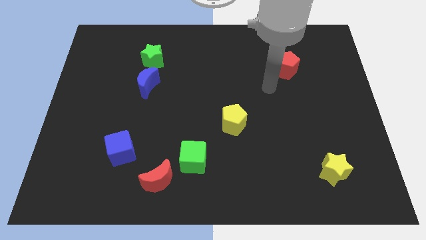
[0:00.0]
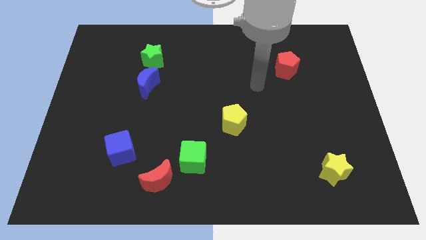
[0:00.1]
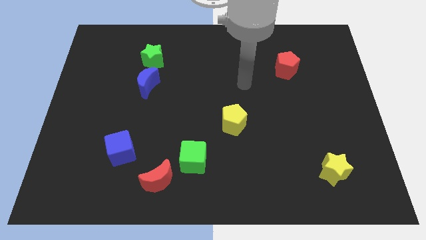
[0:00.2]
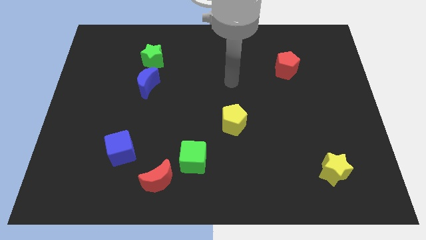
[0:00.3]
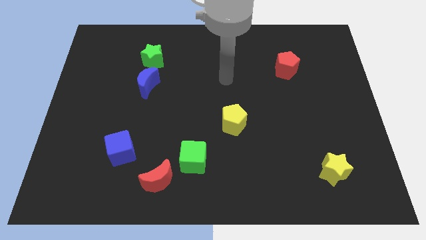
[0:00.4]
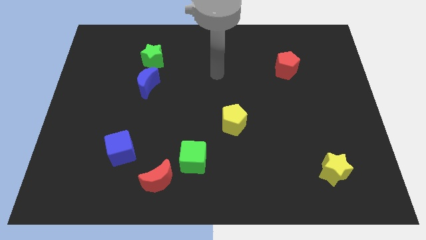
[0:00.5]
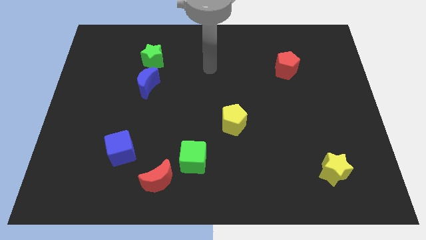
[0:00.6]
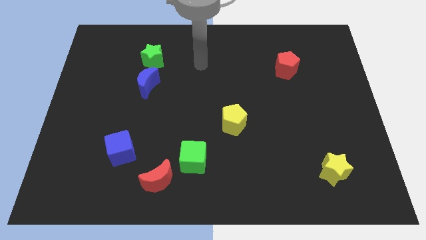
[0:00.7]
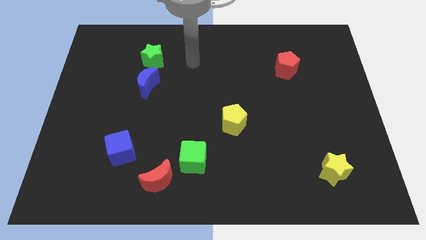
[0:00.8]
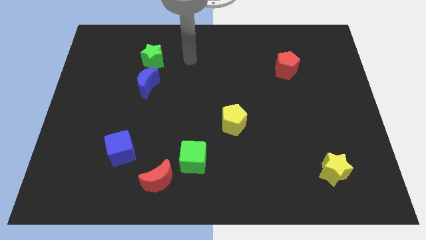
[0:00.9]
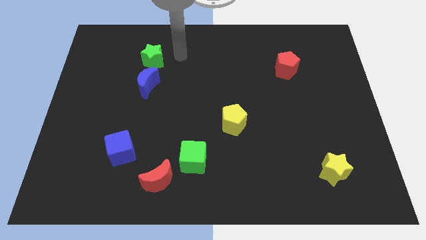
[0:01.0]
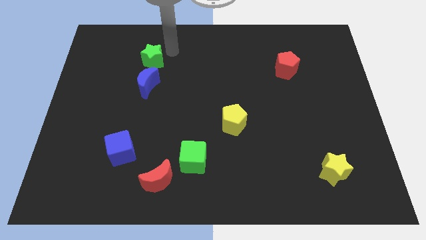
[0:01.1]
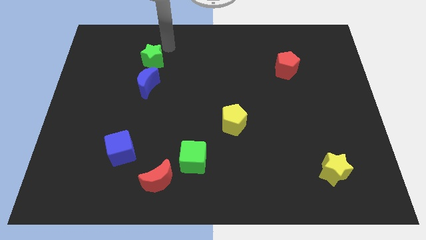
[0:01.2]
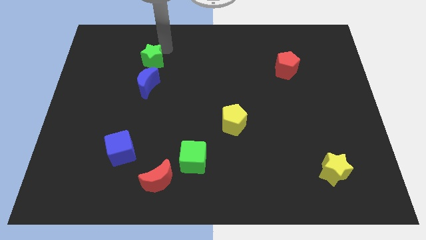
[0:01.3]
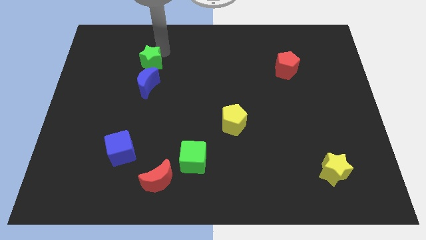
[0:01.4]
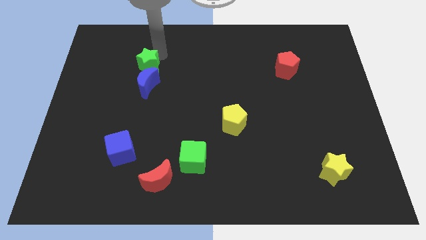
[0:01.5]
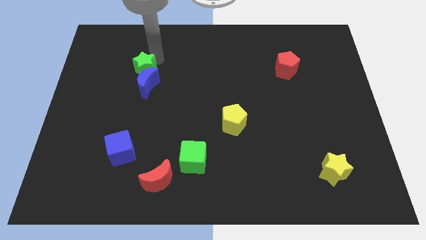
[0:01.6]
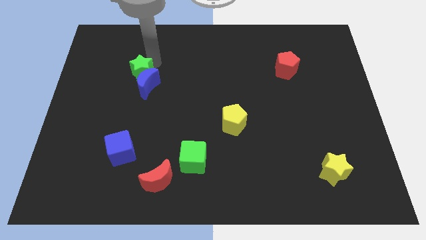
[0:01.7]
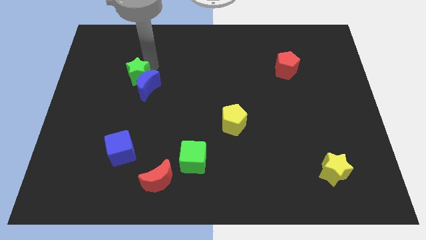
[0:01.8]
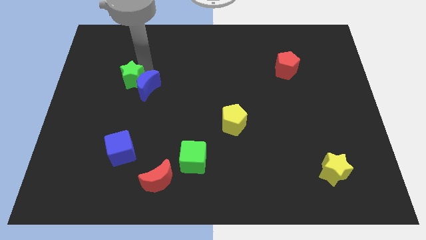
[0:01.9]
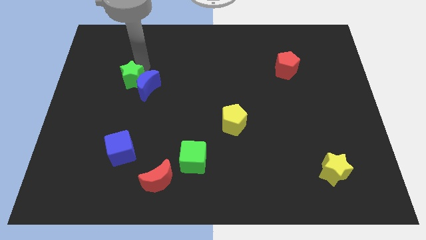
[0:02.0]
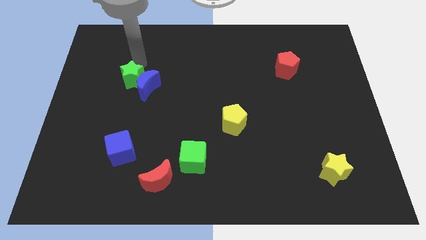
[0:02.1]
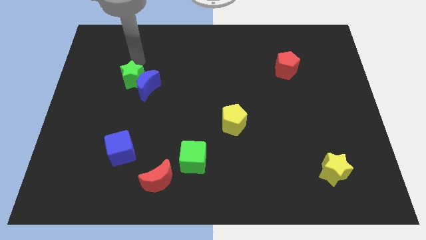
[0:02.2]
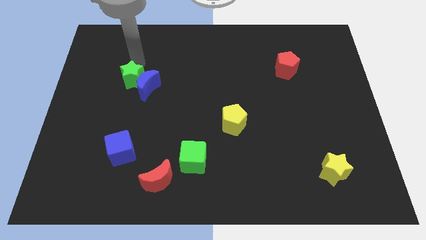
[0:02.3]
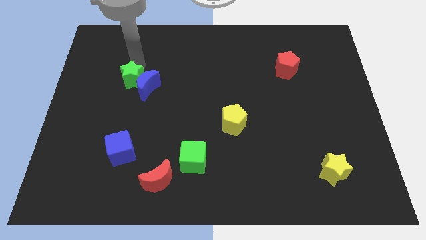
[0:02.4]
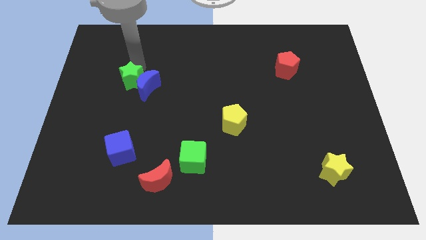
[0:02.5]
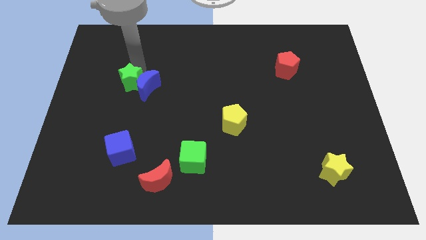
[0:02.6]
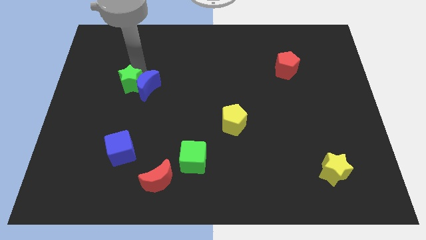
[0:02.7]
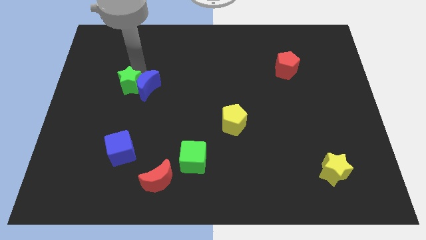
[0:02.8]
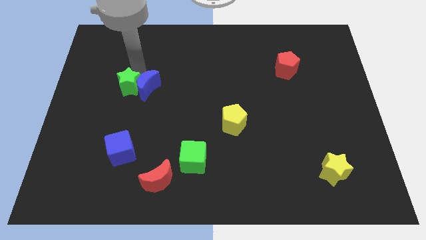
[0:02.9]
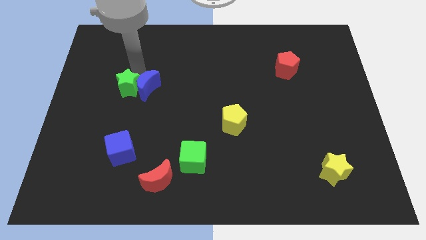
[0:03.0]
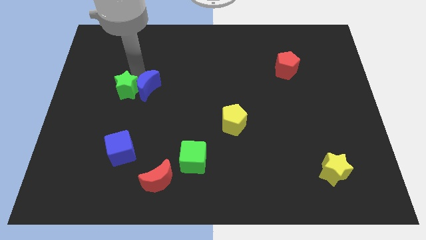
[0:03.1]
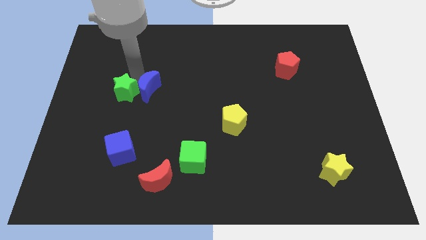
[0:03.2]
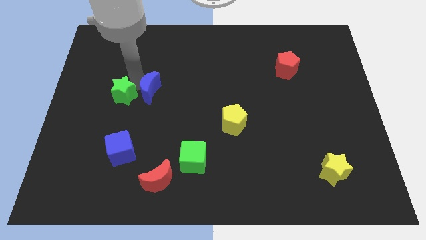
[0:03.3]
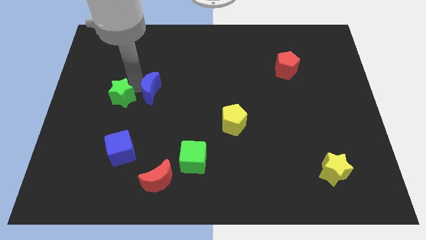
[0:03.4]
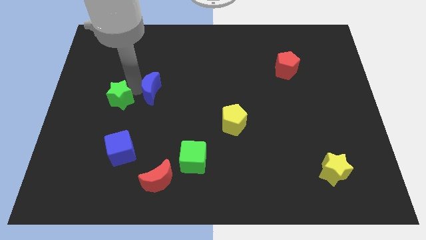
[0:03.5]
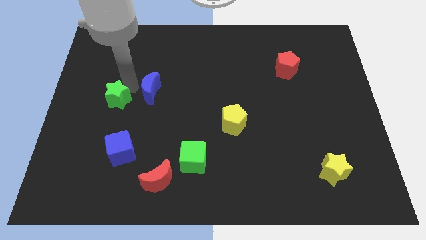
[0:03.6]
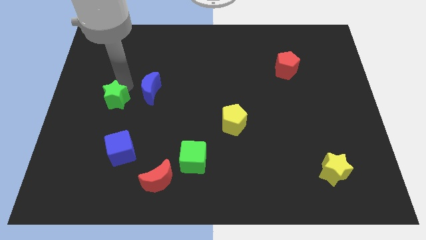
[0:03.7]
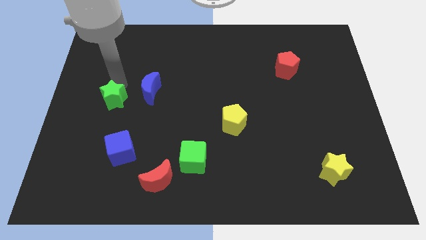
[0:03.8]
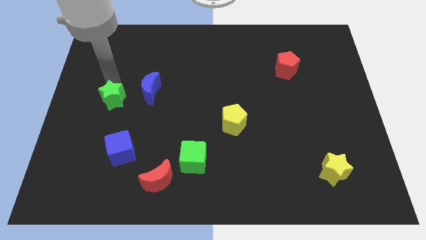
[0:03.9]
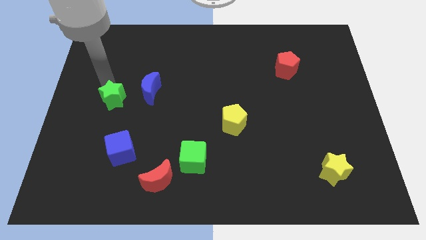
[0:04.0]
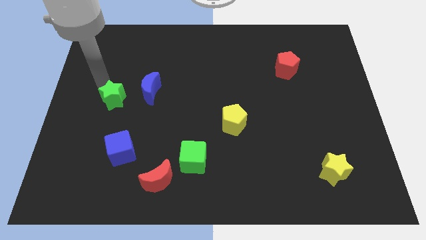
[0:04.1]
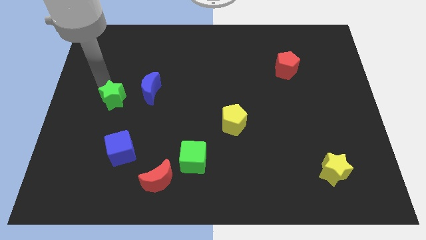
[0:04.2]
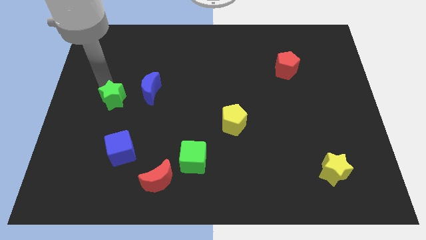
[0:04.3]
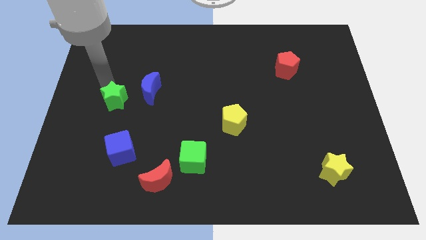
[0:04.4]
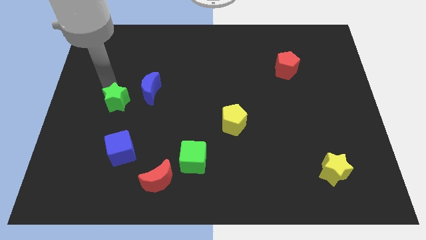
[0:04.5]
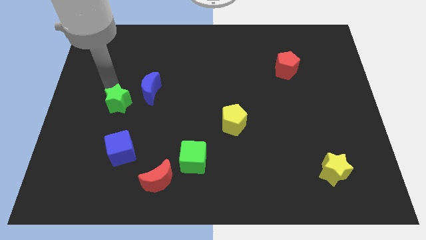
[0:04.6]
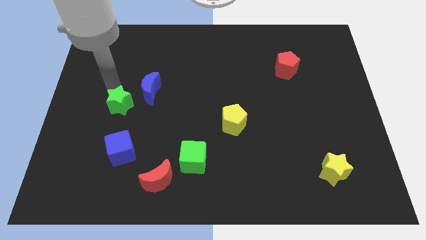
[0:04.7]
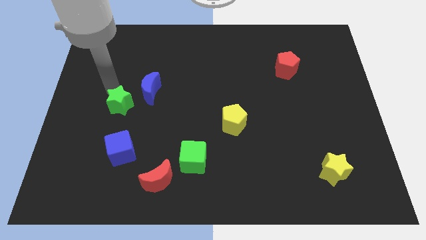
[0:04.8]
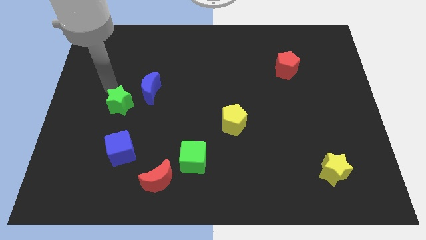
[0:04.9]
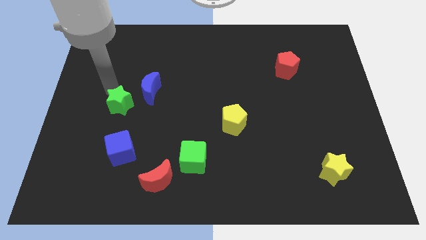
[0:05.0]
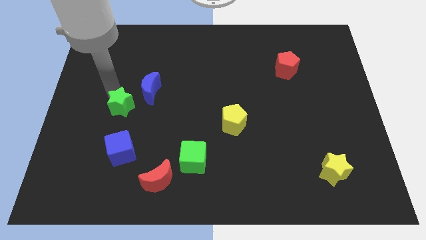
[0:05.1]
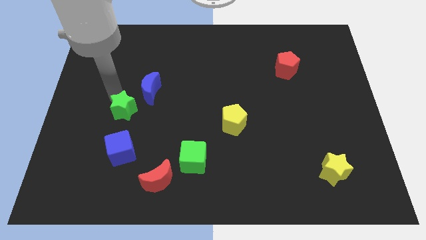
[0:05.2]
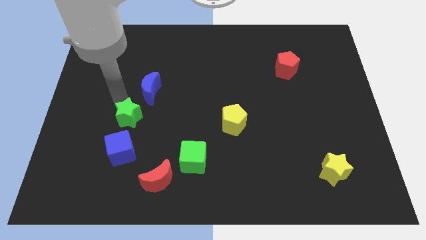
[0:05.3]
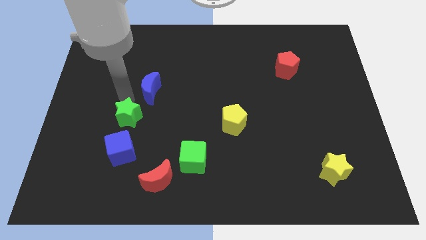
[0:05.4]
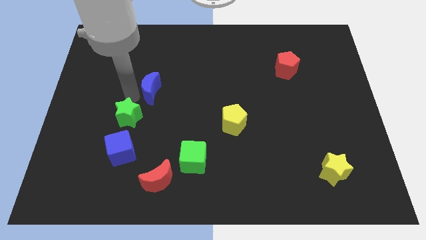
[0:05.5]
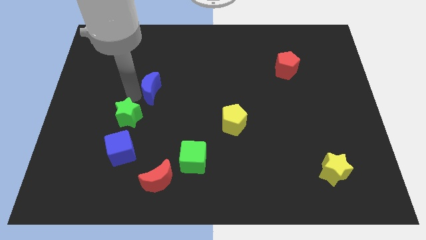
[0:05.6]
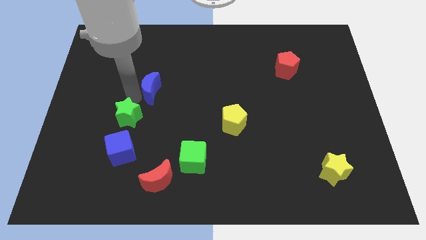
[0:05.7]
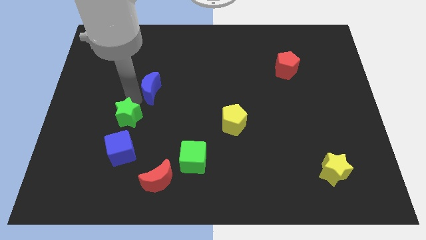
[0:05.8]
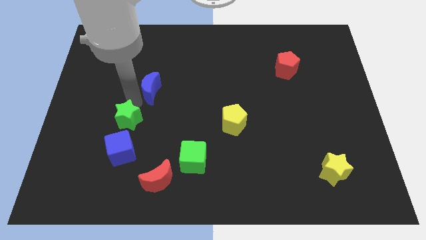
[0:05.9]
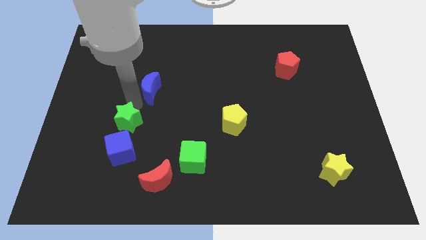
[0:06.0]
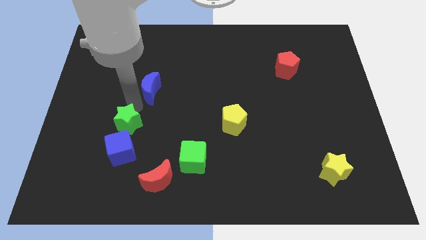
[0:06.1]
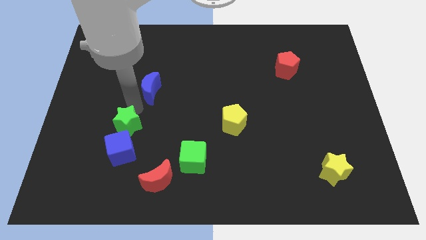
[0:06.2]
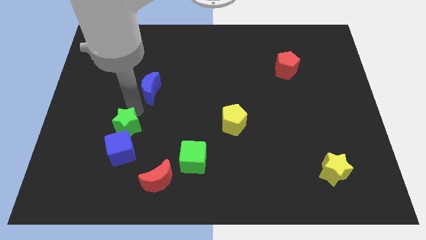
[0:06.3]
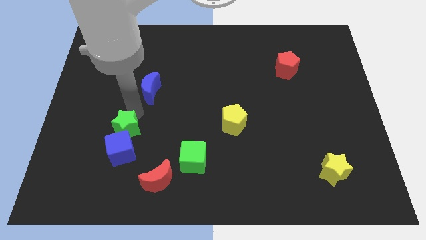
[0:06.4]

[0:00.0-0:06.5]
move the green star towards the blue cube
